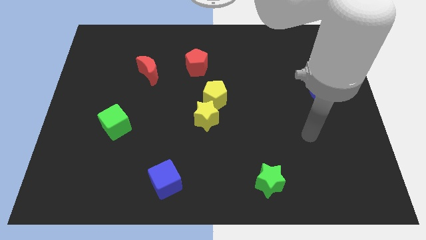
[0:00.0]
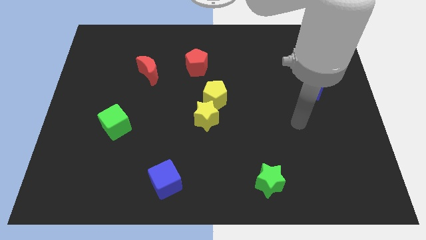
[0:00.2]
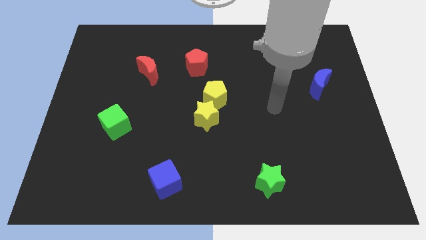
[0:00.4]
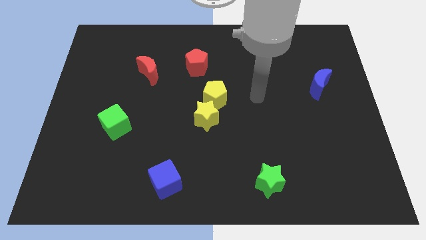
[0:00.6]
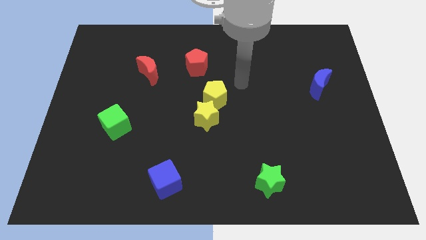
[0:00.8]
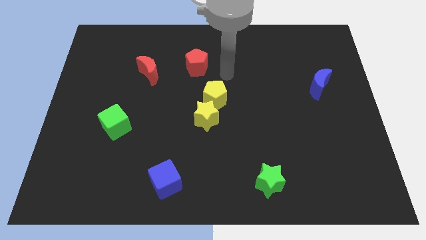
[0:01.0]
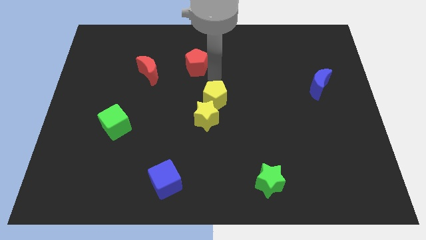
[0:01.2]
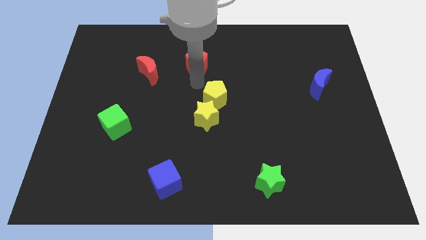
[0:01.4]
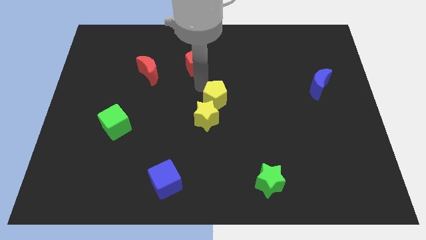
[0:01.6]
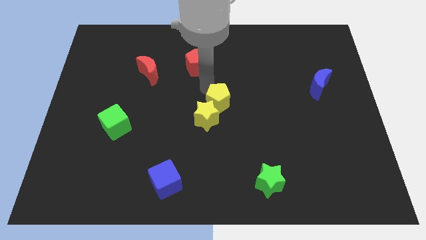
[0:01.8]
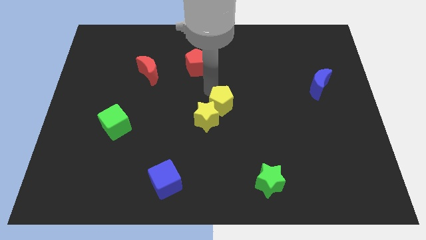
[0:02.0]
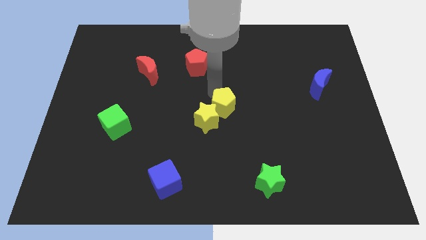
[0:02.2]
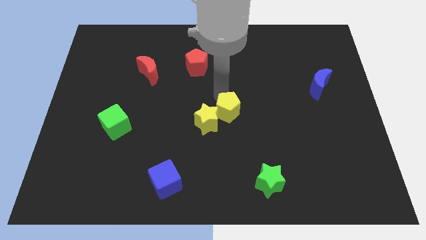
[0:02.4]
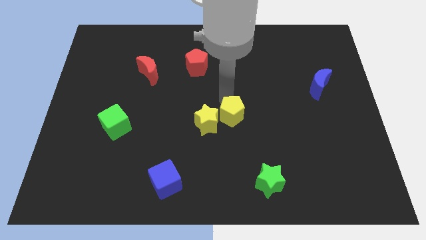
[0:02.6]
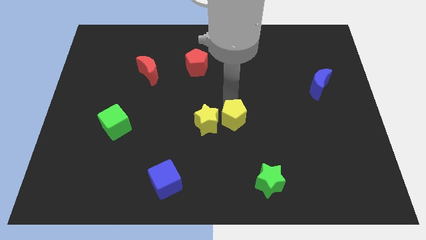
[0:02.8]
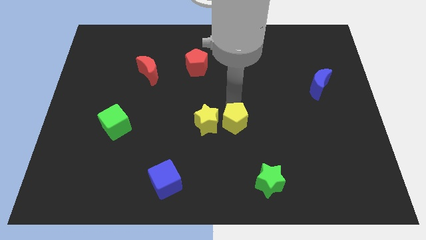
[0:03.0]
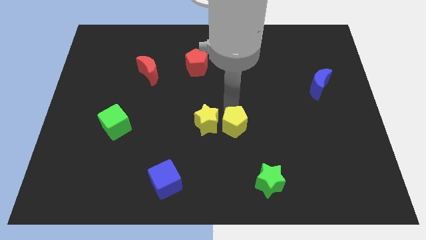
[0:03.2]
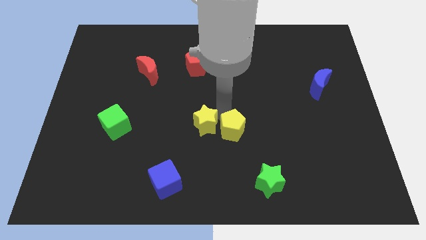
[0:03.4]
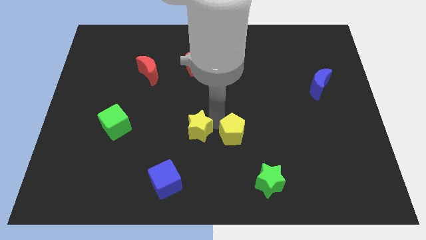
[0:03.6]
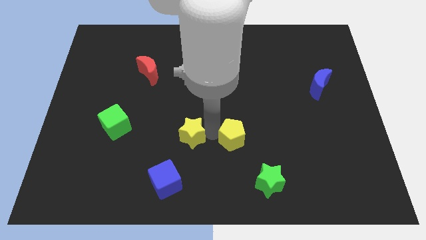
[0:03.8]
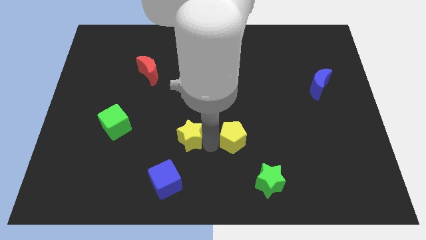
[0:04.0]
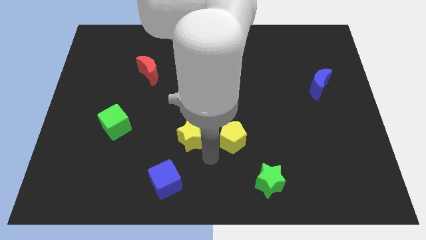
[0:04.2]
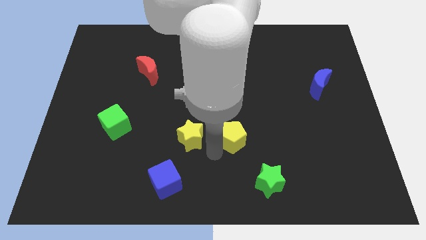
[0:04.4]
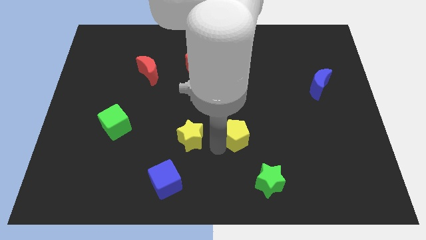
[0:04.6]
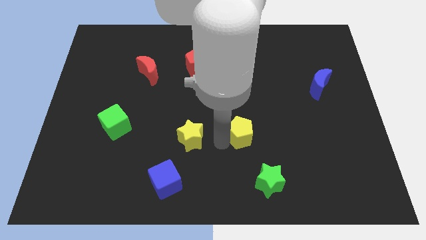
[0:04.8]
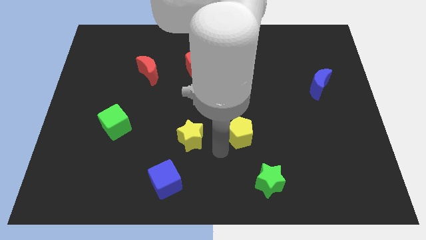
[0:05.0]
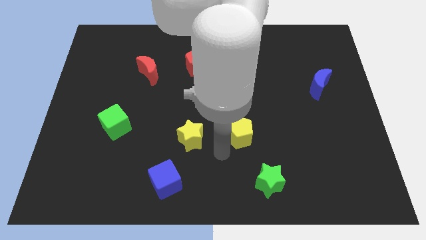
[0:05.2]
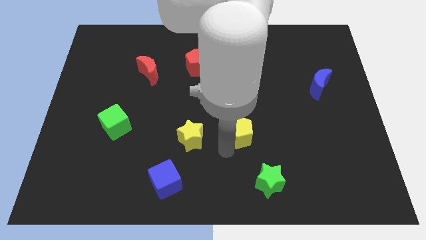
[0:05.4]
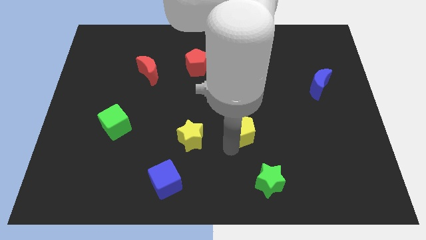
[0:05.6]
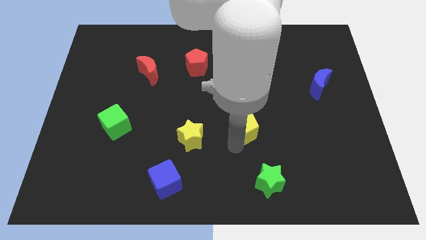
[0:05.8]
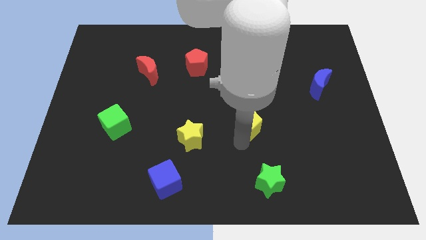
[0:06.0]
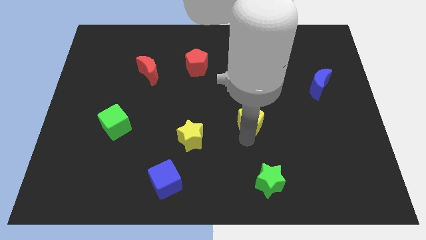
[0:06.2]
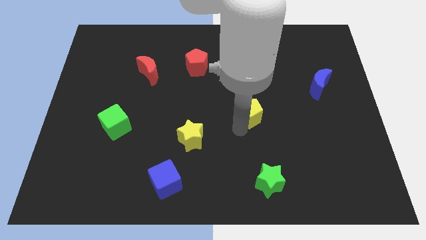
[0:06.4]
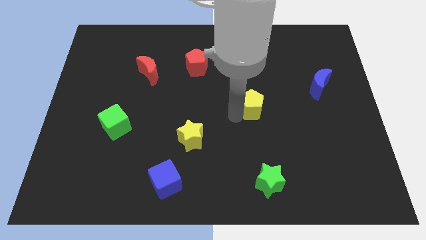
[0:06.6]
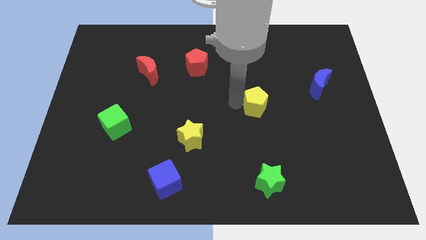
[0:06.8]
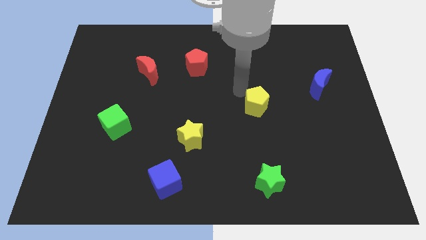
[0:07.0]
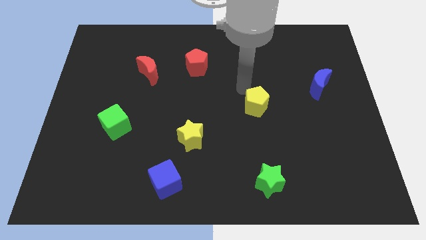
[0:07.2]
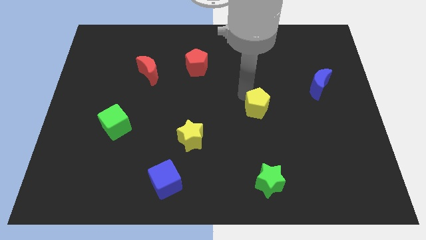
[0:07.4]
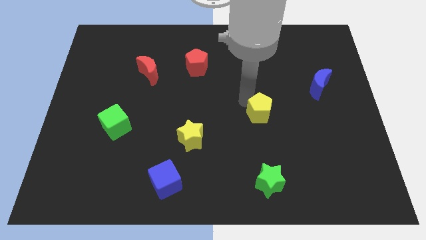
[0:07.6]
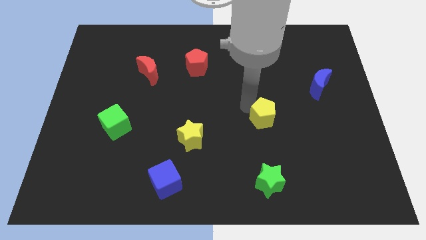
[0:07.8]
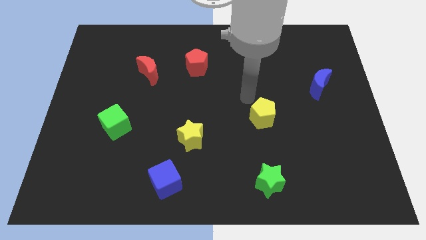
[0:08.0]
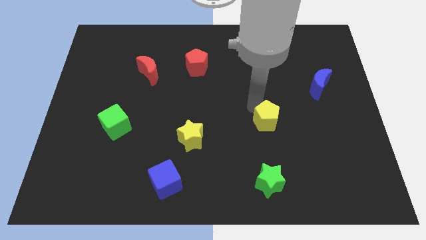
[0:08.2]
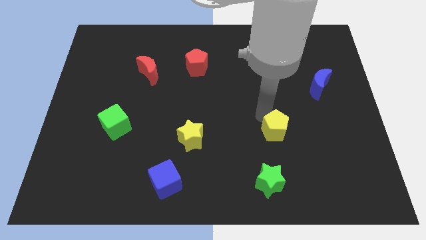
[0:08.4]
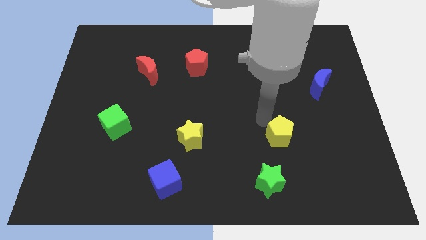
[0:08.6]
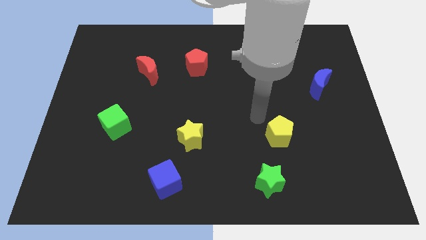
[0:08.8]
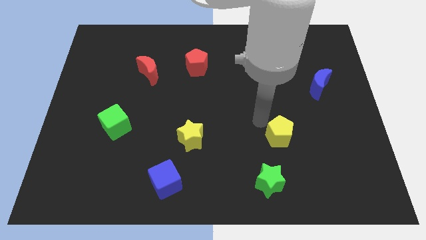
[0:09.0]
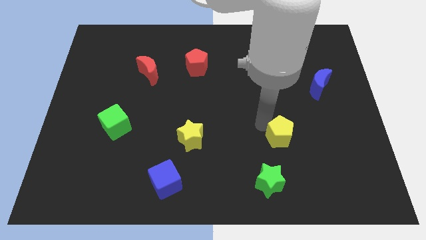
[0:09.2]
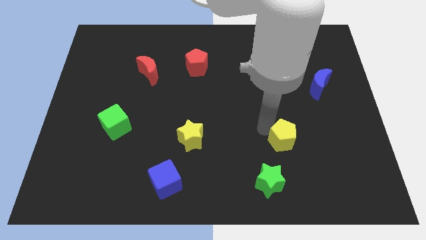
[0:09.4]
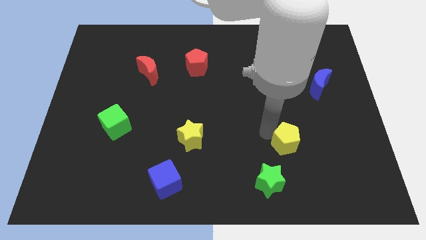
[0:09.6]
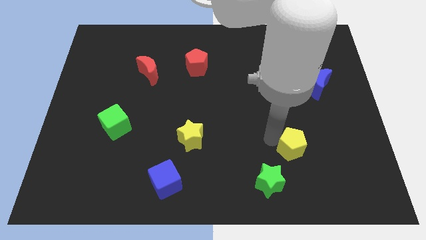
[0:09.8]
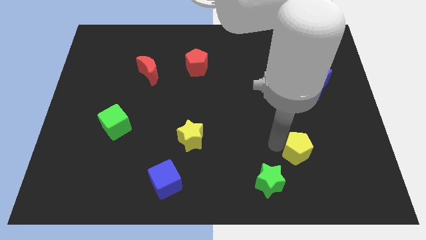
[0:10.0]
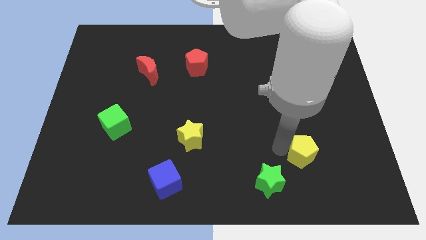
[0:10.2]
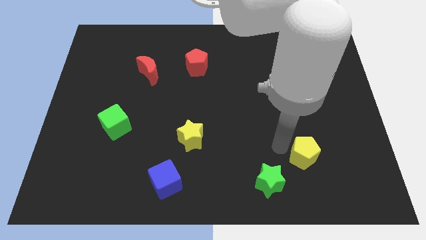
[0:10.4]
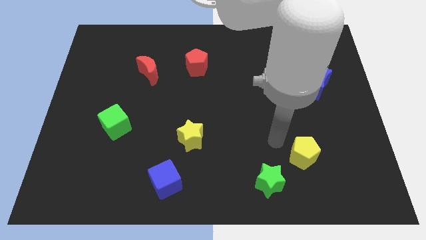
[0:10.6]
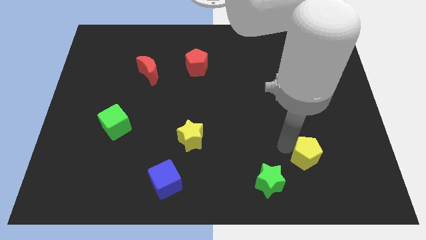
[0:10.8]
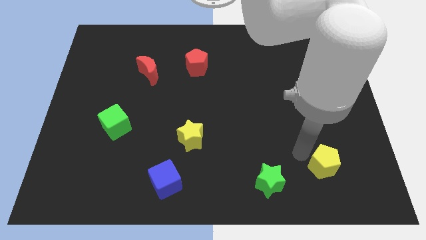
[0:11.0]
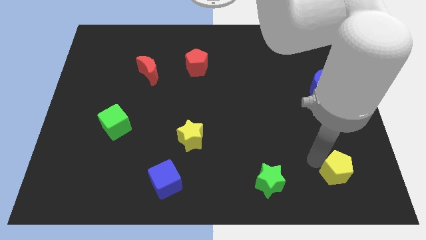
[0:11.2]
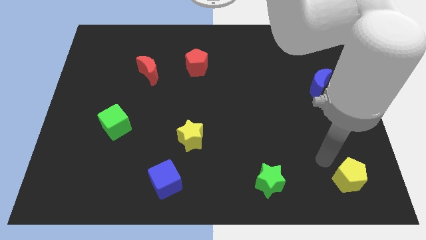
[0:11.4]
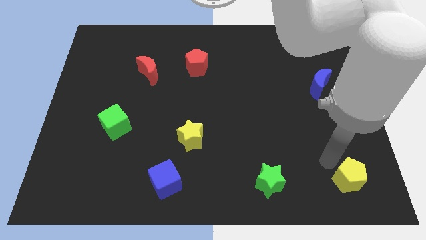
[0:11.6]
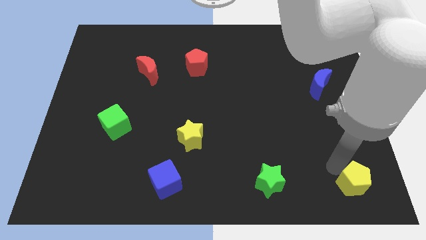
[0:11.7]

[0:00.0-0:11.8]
slide the yellow pentagon to the bottom right of the board

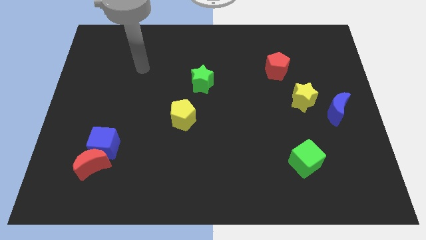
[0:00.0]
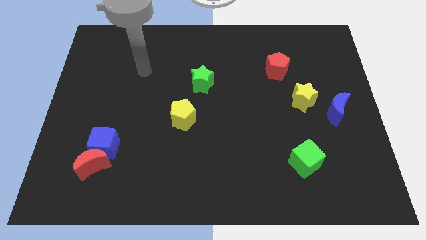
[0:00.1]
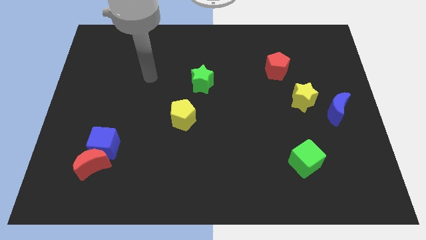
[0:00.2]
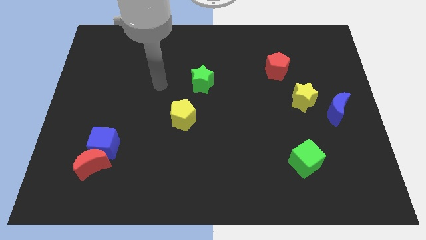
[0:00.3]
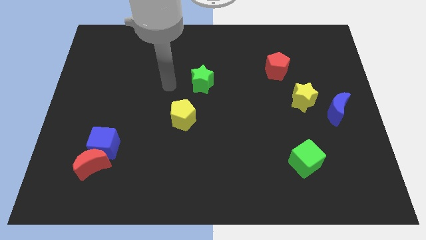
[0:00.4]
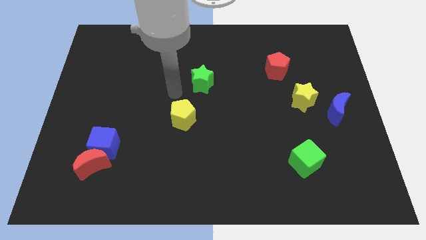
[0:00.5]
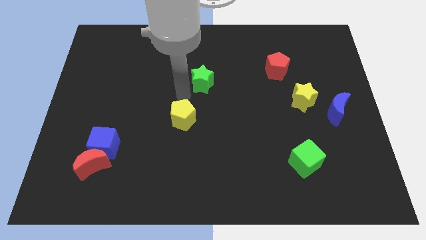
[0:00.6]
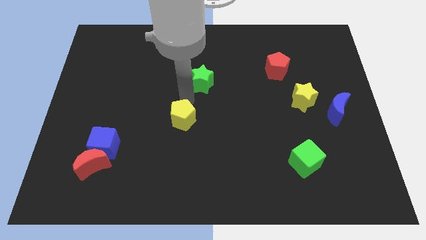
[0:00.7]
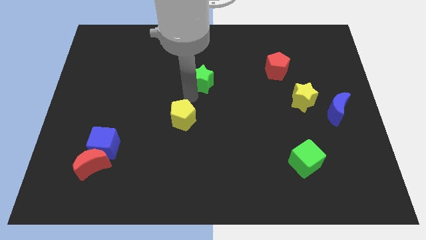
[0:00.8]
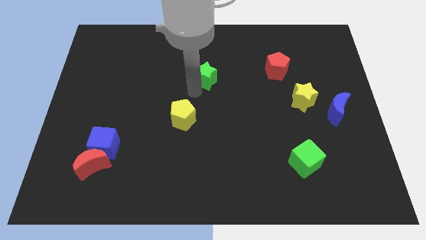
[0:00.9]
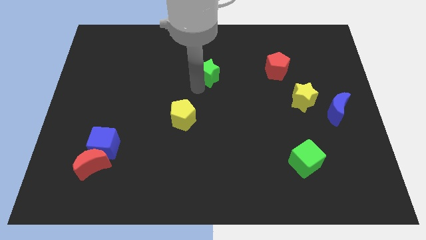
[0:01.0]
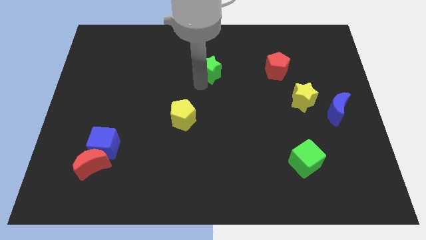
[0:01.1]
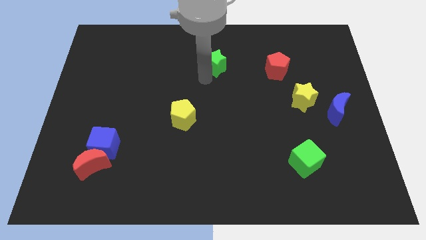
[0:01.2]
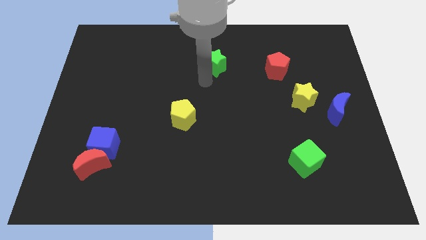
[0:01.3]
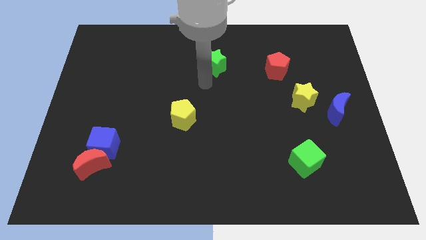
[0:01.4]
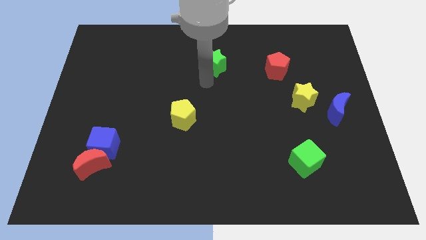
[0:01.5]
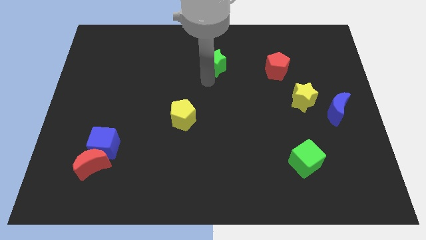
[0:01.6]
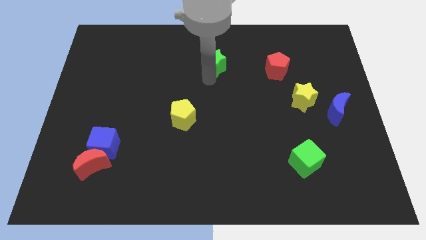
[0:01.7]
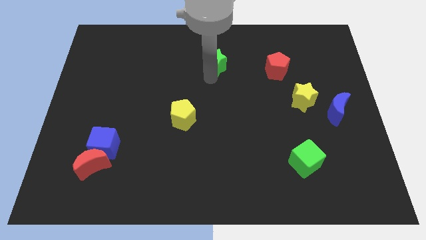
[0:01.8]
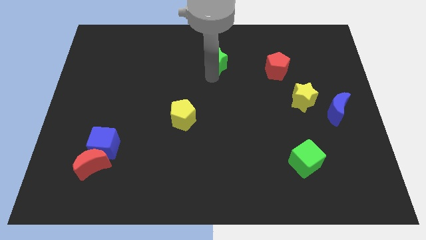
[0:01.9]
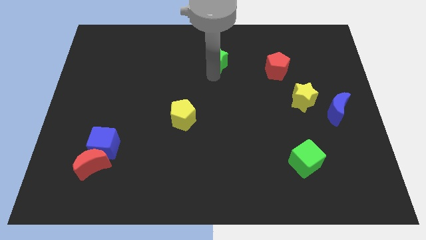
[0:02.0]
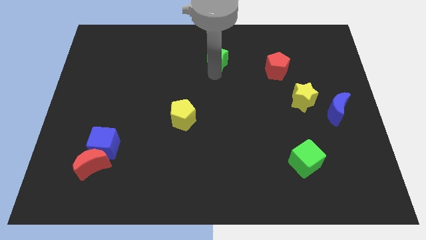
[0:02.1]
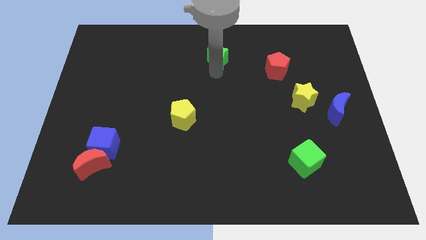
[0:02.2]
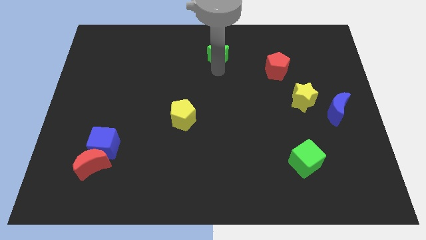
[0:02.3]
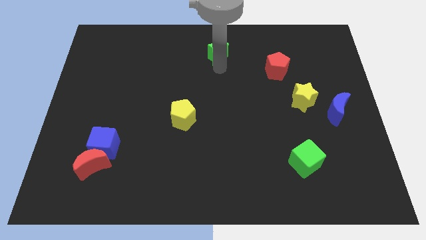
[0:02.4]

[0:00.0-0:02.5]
move the green star to the top side
